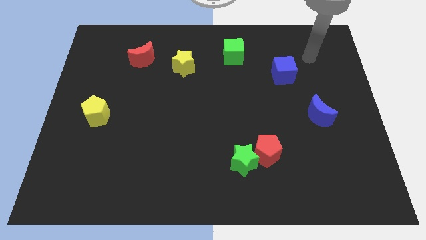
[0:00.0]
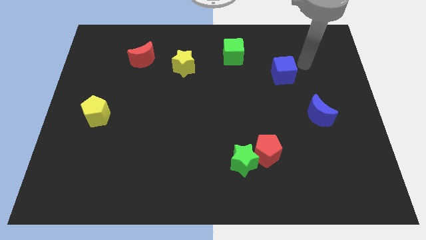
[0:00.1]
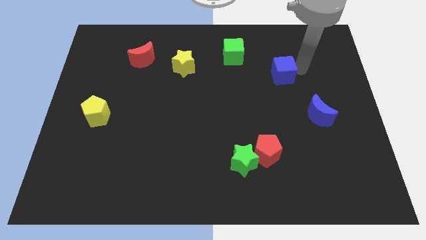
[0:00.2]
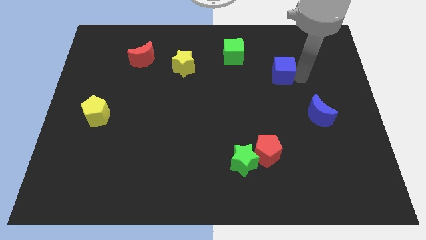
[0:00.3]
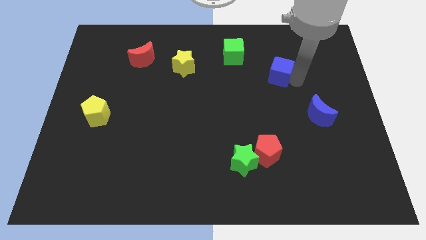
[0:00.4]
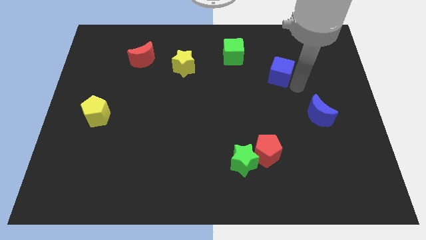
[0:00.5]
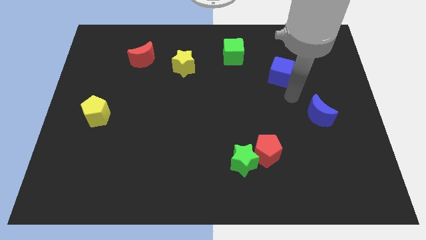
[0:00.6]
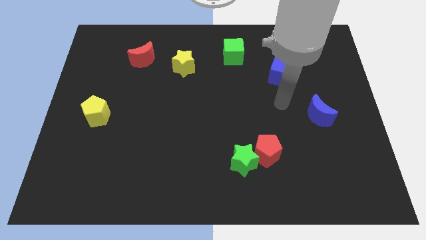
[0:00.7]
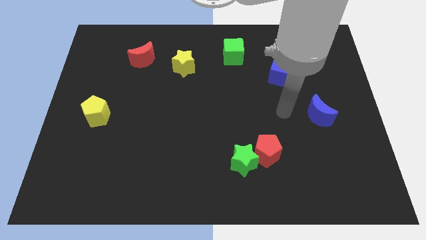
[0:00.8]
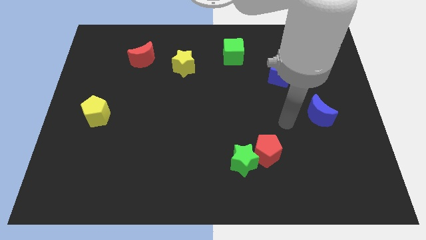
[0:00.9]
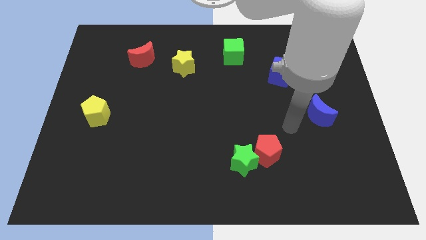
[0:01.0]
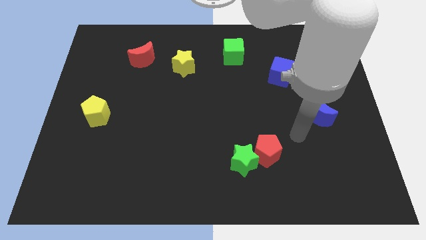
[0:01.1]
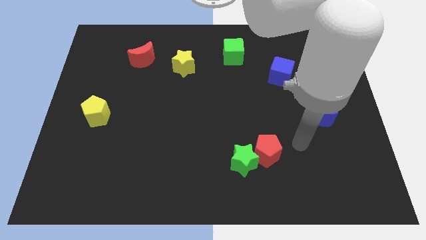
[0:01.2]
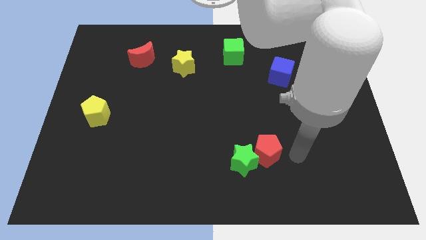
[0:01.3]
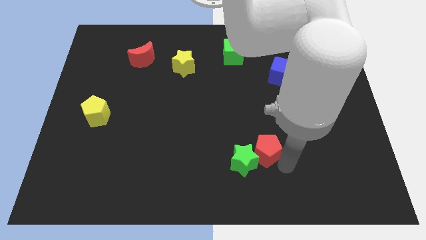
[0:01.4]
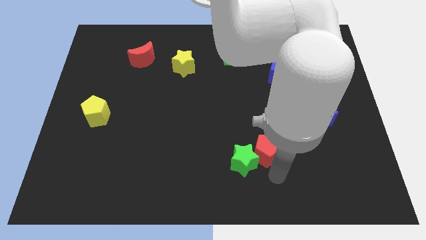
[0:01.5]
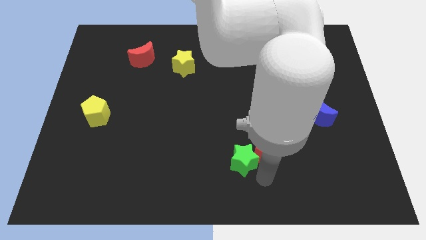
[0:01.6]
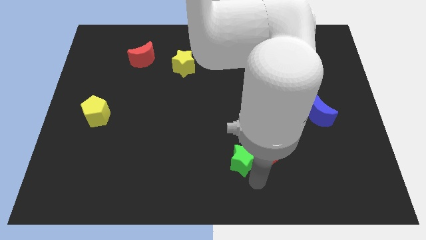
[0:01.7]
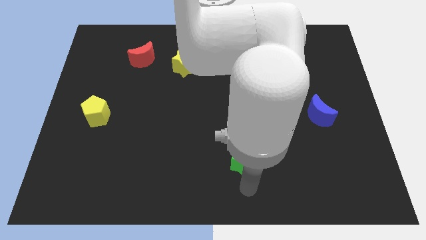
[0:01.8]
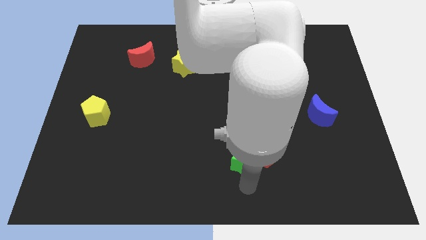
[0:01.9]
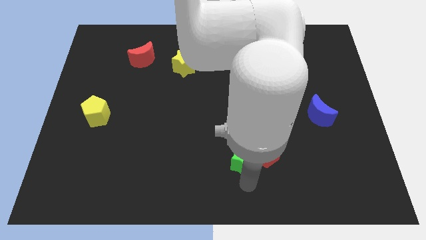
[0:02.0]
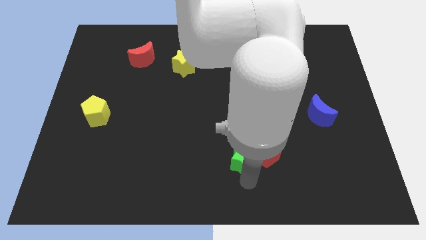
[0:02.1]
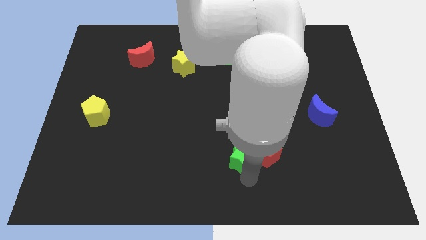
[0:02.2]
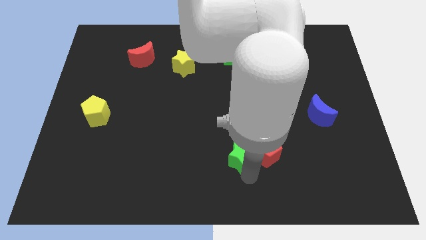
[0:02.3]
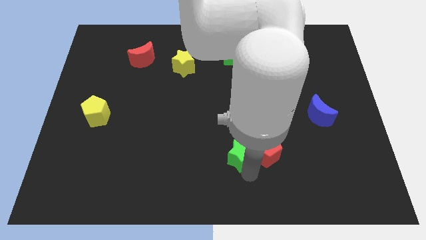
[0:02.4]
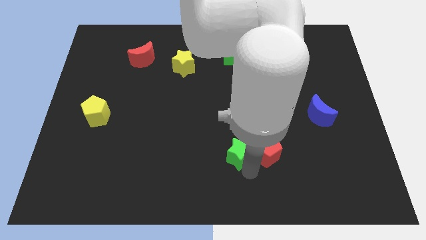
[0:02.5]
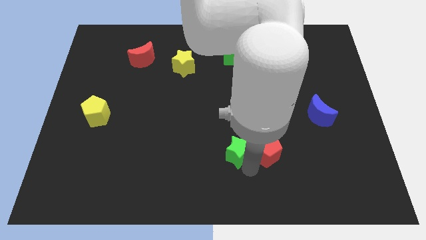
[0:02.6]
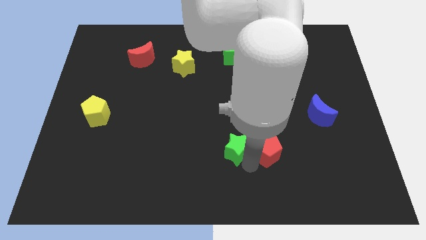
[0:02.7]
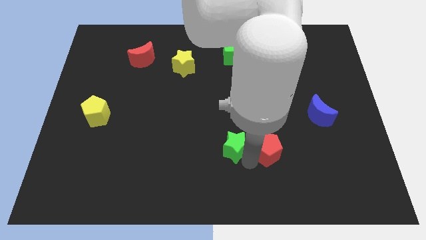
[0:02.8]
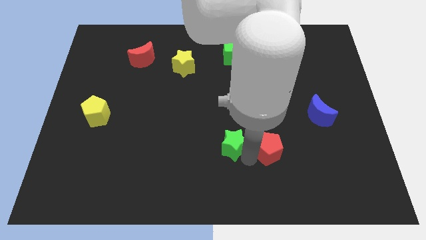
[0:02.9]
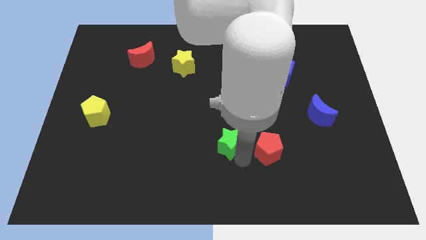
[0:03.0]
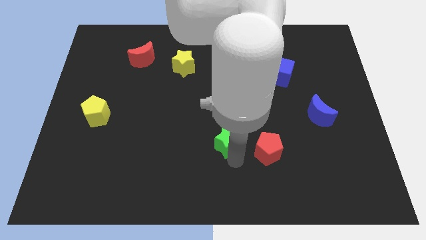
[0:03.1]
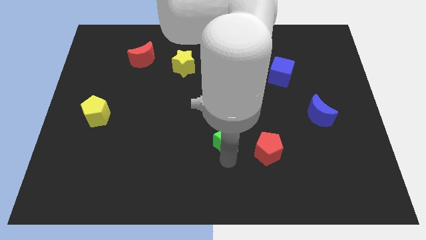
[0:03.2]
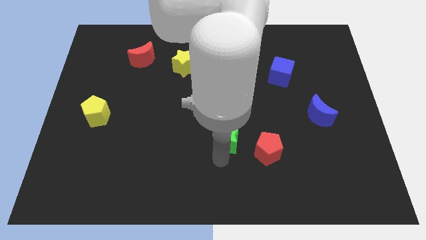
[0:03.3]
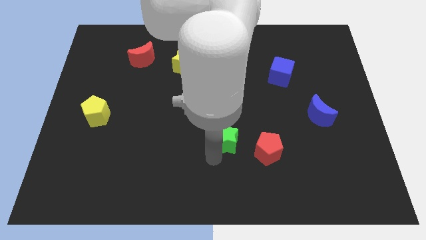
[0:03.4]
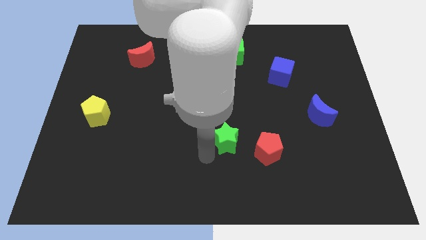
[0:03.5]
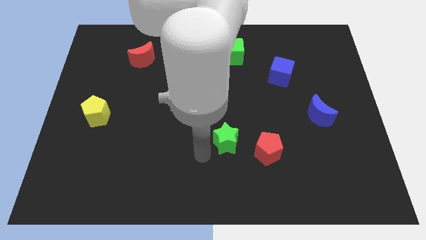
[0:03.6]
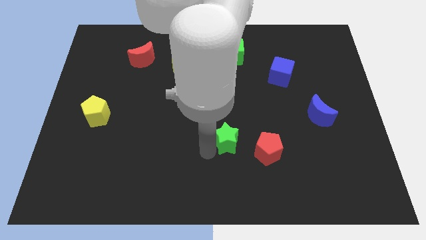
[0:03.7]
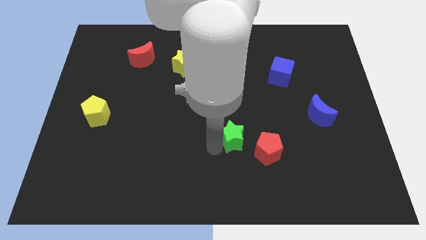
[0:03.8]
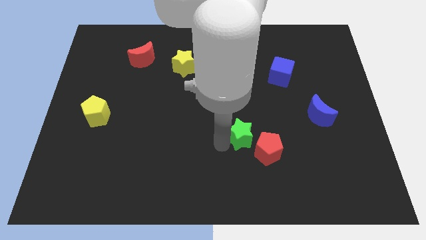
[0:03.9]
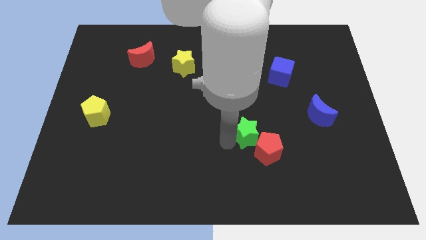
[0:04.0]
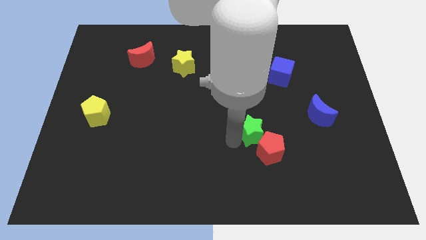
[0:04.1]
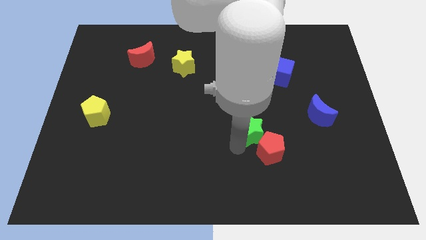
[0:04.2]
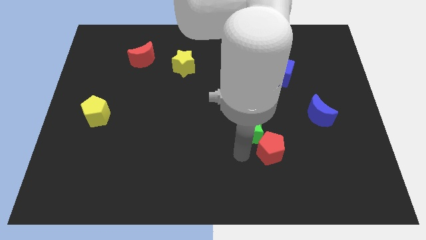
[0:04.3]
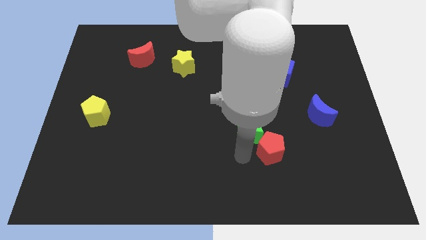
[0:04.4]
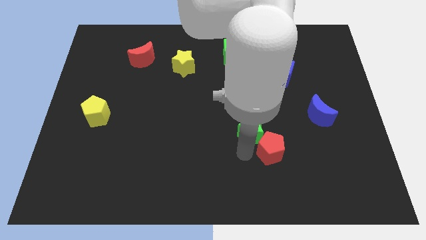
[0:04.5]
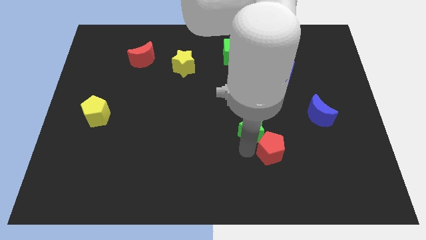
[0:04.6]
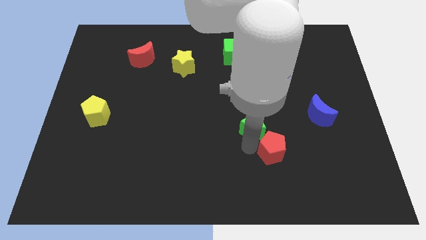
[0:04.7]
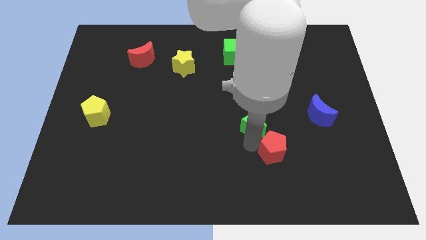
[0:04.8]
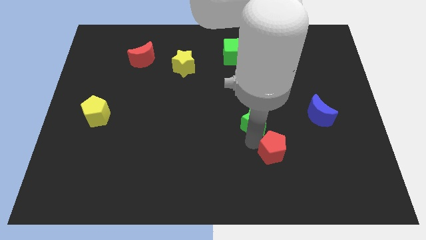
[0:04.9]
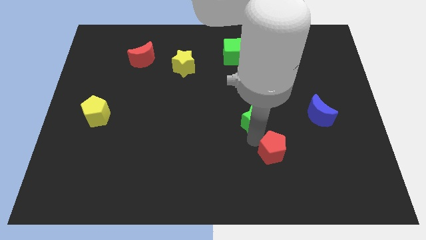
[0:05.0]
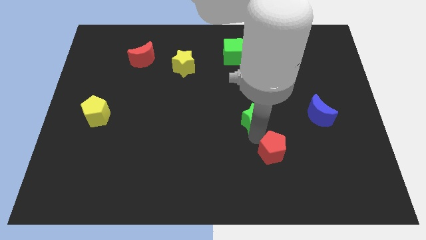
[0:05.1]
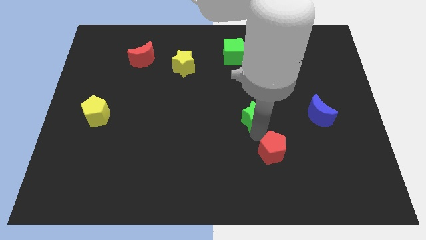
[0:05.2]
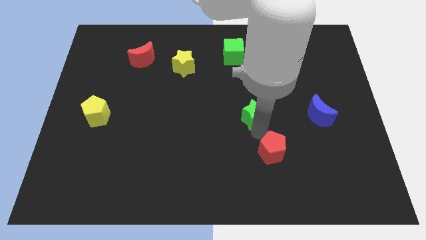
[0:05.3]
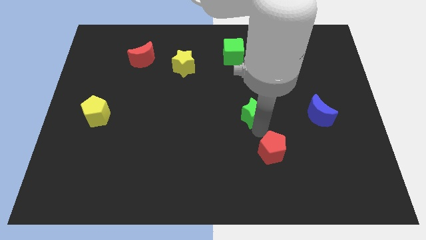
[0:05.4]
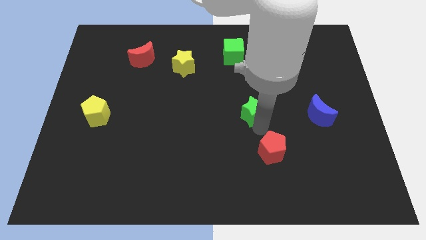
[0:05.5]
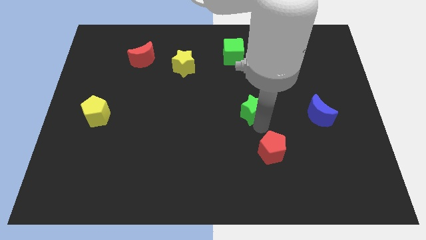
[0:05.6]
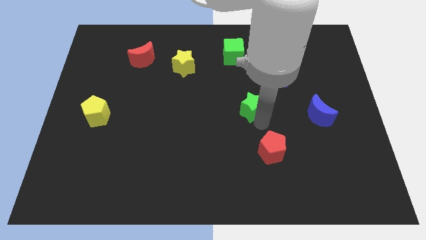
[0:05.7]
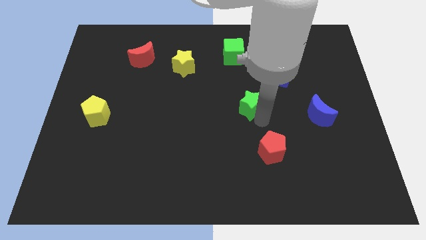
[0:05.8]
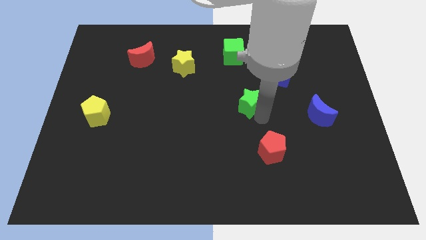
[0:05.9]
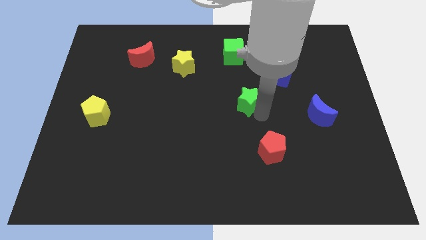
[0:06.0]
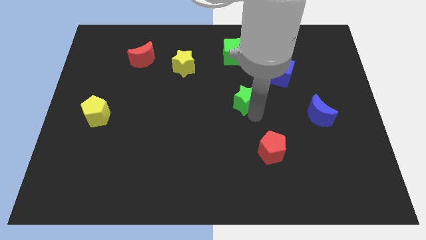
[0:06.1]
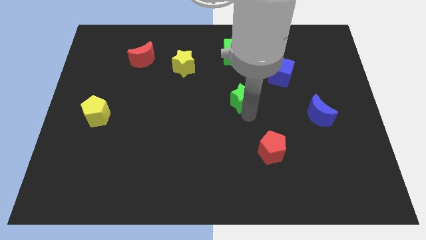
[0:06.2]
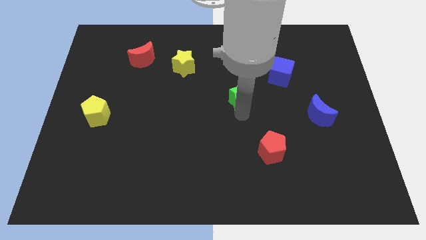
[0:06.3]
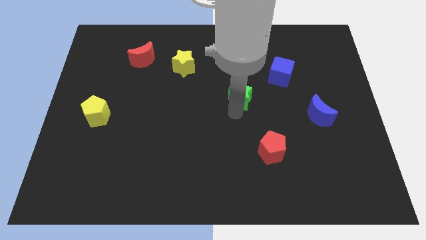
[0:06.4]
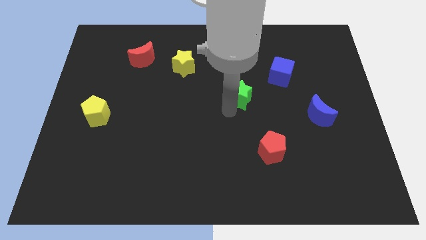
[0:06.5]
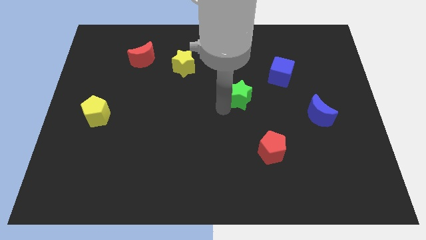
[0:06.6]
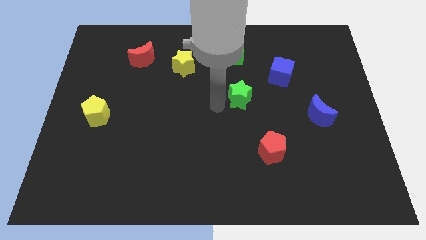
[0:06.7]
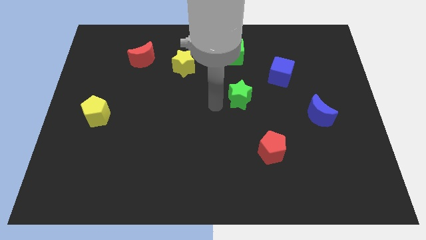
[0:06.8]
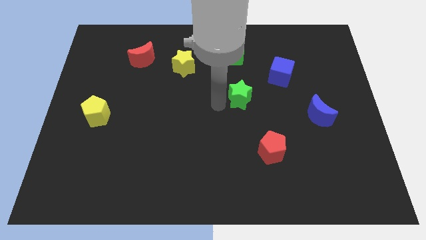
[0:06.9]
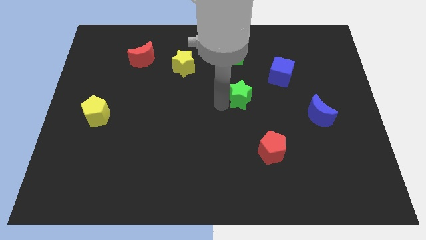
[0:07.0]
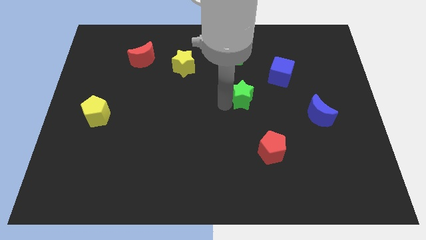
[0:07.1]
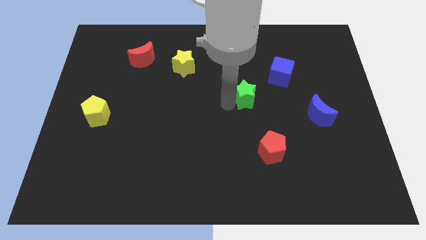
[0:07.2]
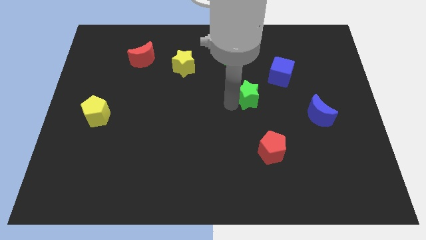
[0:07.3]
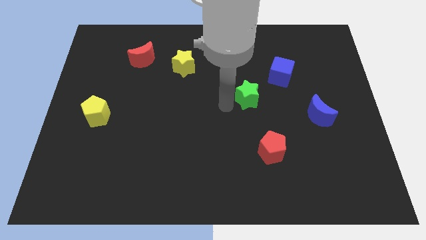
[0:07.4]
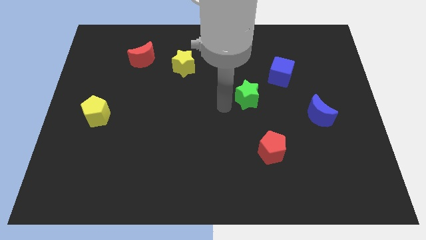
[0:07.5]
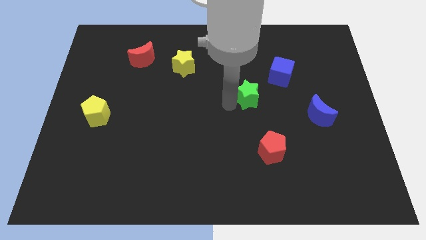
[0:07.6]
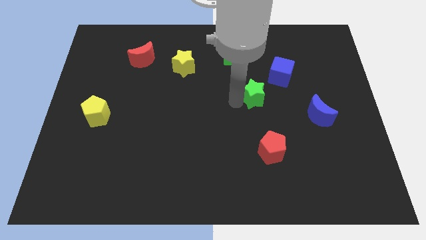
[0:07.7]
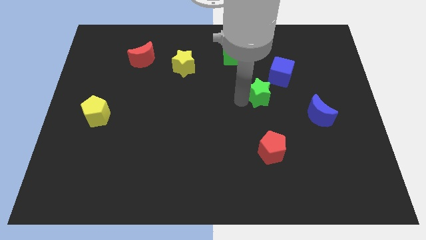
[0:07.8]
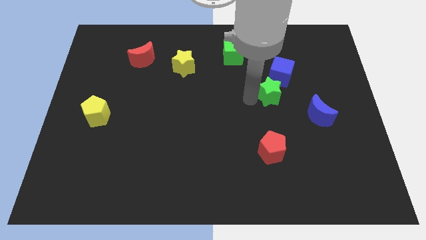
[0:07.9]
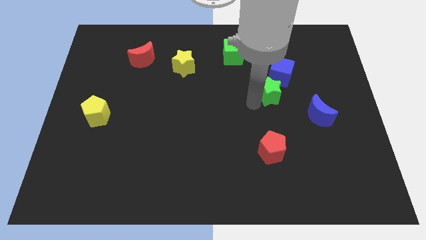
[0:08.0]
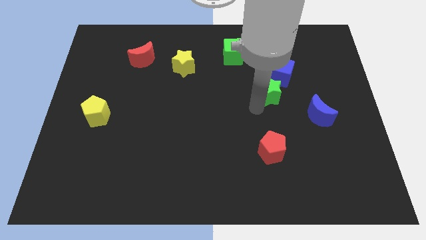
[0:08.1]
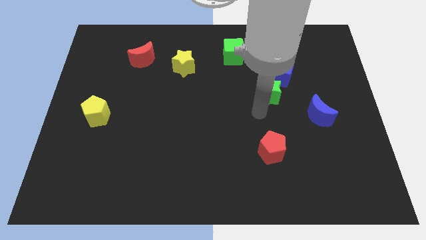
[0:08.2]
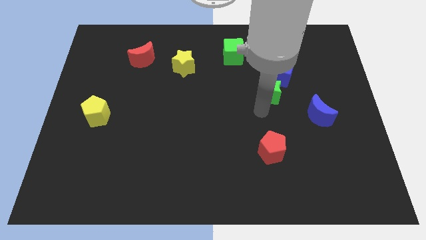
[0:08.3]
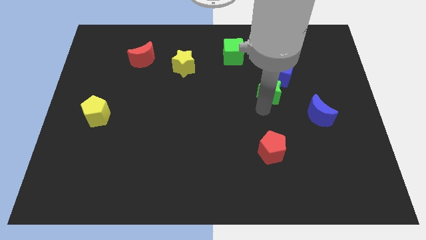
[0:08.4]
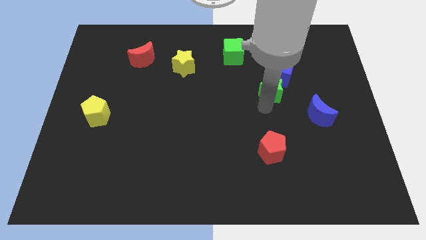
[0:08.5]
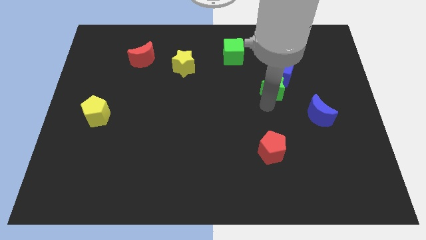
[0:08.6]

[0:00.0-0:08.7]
push the green star next to the blue cube
